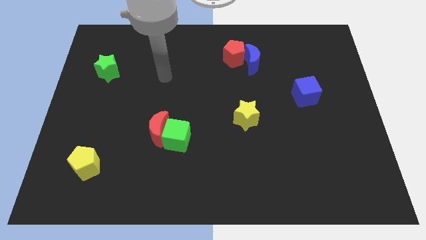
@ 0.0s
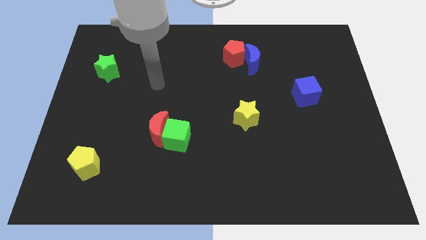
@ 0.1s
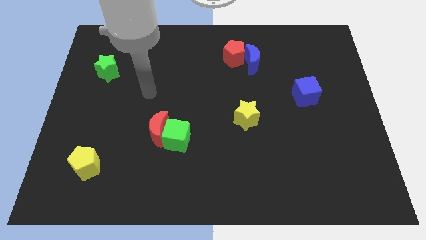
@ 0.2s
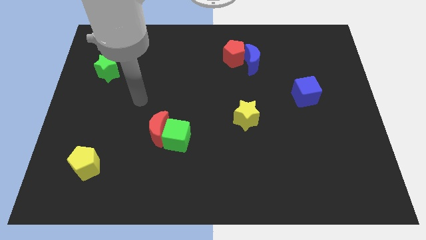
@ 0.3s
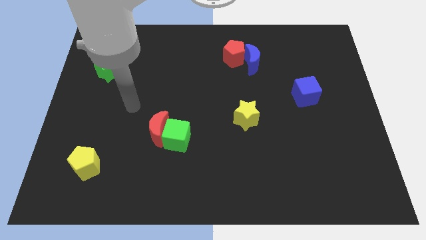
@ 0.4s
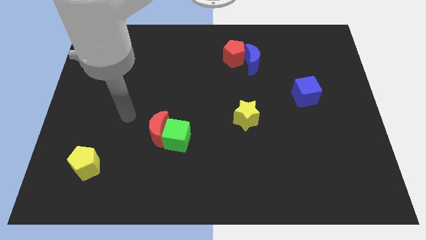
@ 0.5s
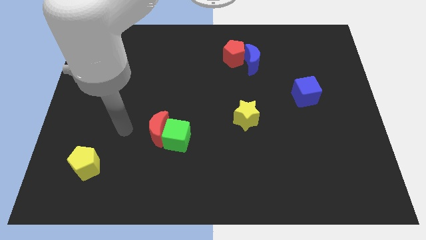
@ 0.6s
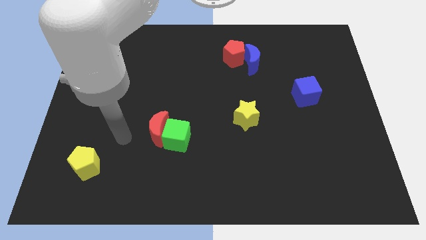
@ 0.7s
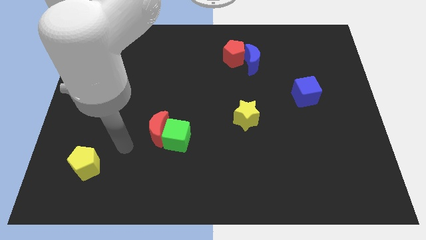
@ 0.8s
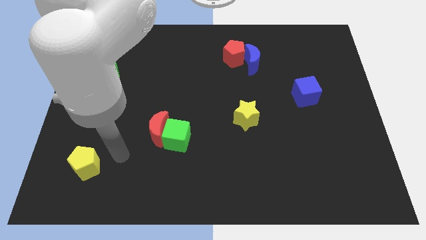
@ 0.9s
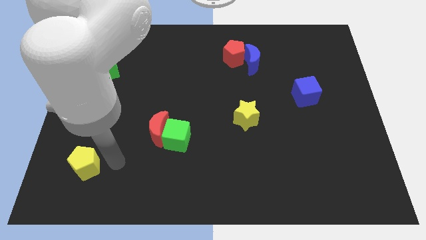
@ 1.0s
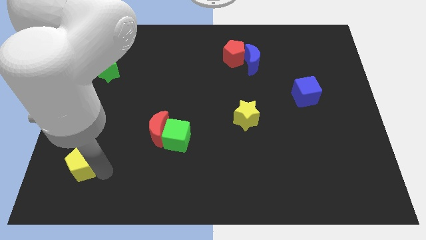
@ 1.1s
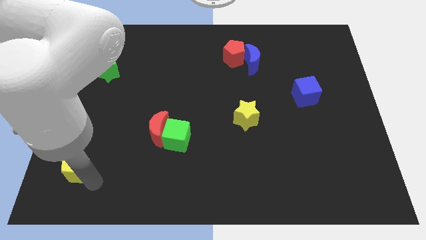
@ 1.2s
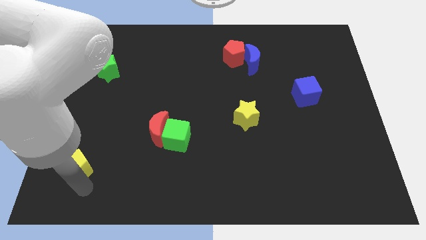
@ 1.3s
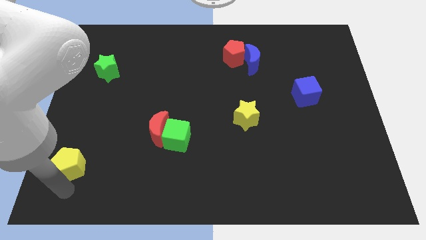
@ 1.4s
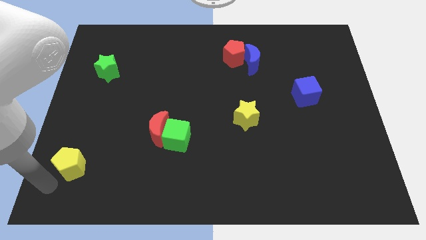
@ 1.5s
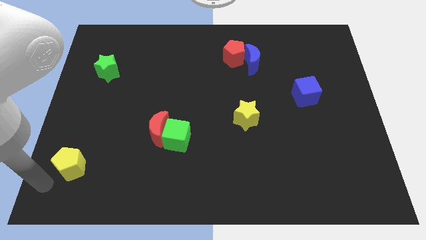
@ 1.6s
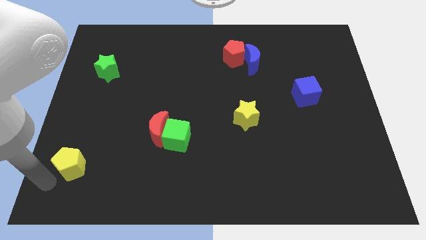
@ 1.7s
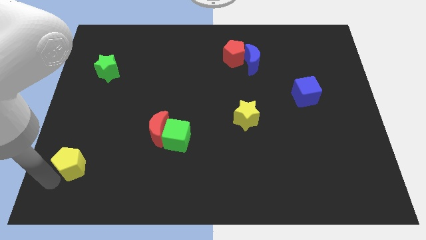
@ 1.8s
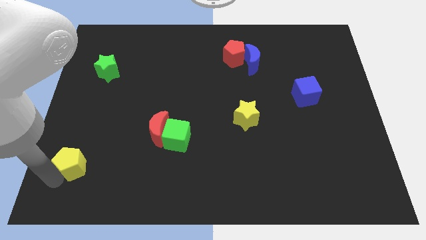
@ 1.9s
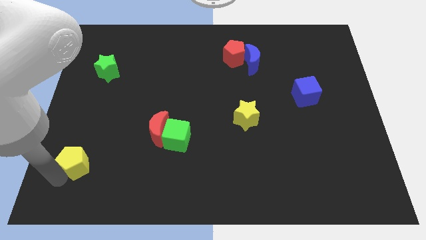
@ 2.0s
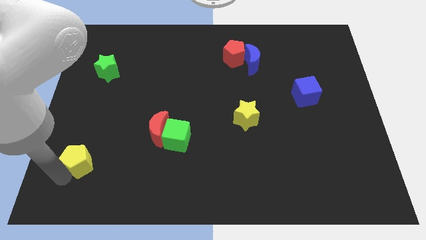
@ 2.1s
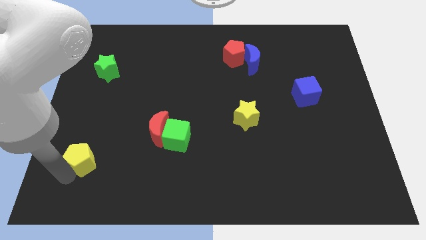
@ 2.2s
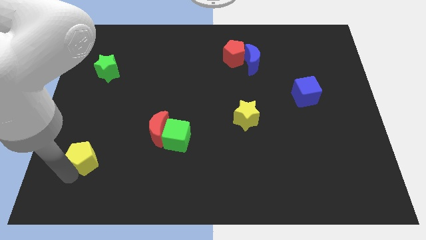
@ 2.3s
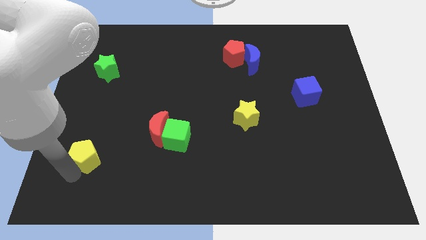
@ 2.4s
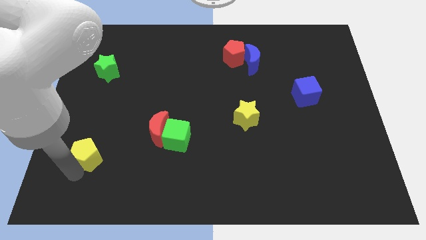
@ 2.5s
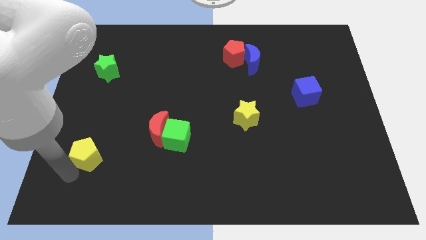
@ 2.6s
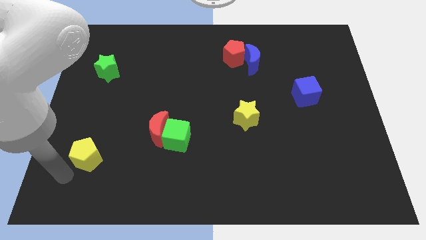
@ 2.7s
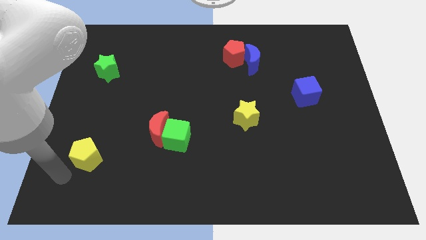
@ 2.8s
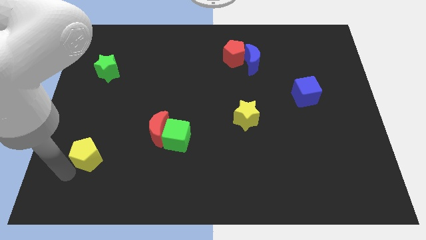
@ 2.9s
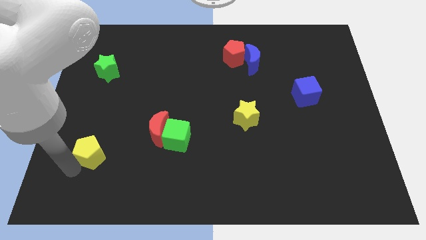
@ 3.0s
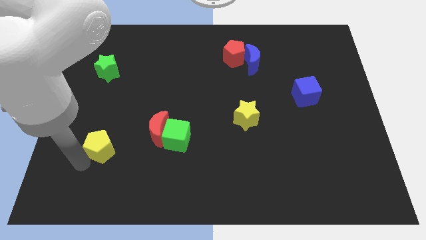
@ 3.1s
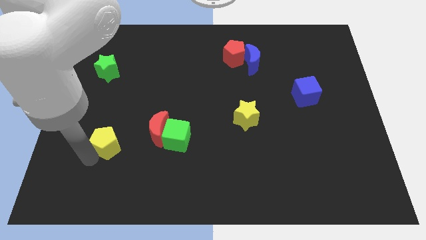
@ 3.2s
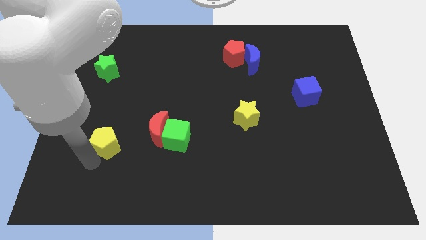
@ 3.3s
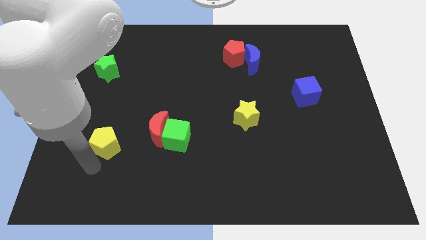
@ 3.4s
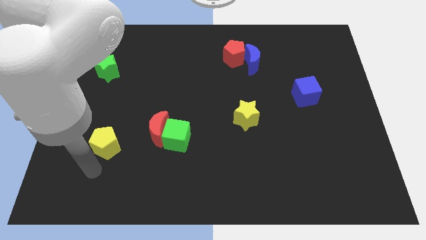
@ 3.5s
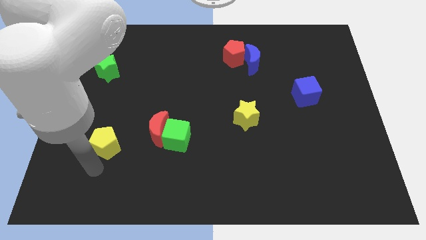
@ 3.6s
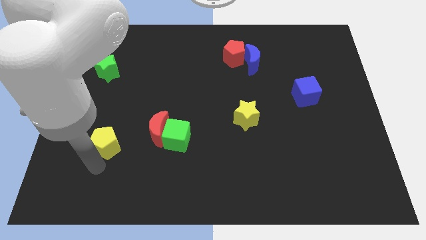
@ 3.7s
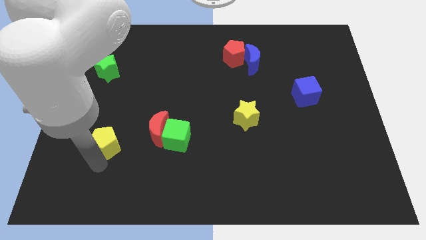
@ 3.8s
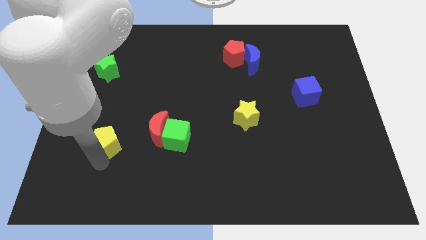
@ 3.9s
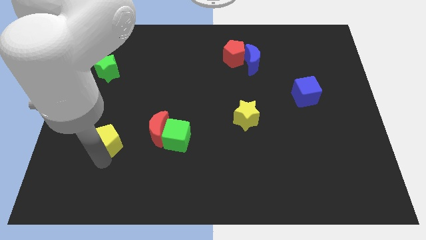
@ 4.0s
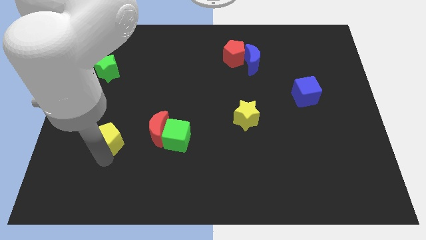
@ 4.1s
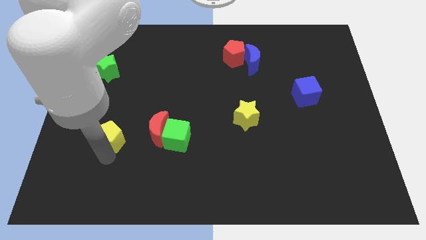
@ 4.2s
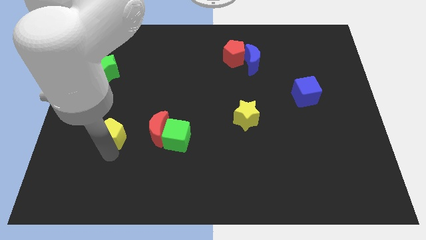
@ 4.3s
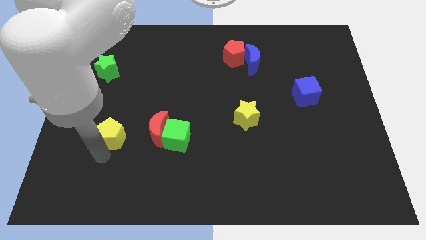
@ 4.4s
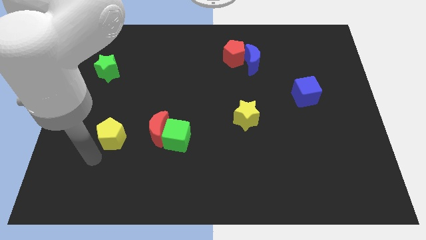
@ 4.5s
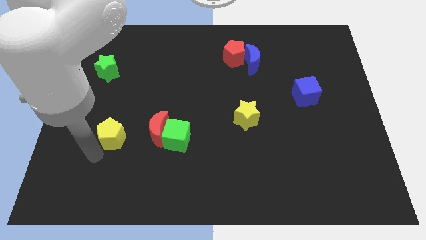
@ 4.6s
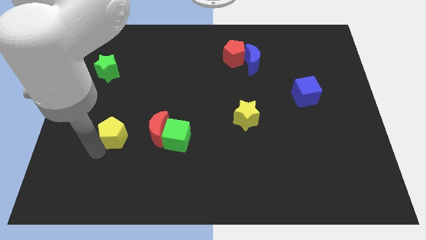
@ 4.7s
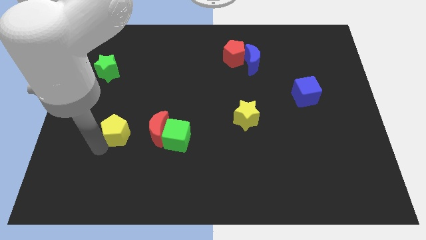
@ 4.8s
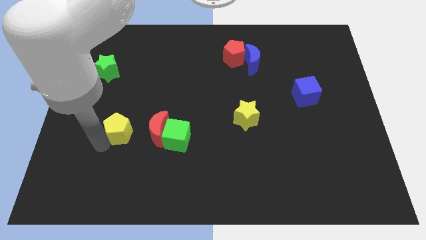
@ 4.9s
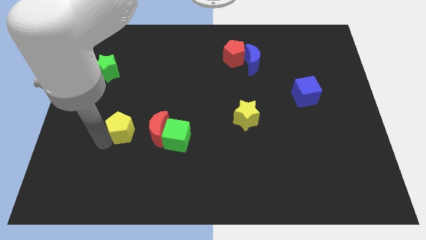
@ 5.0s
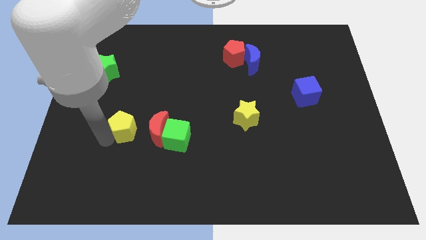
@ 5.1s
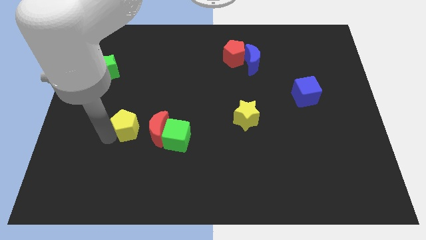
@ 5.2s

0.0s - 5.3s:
put the yellow pentagon diagonally up and to the left of the red moon
